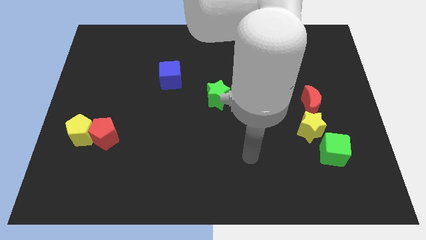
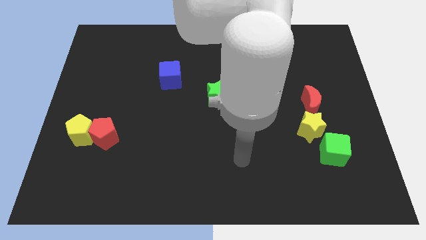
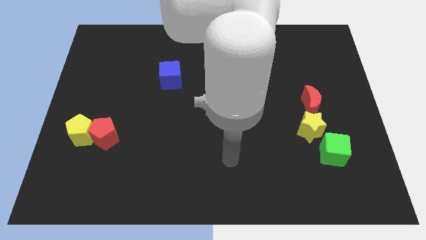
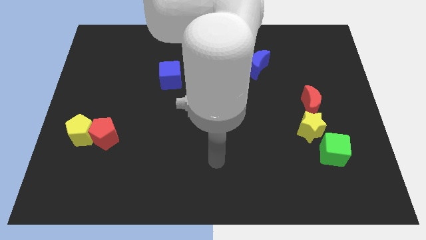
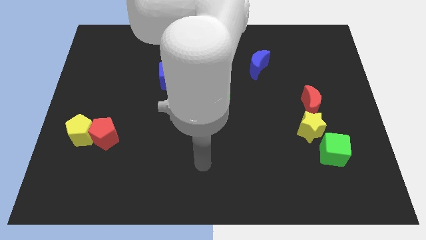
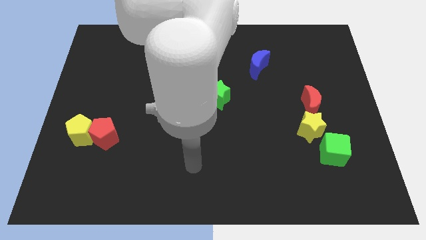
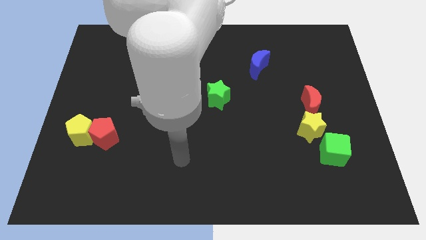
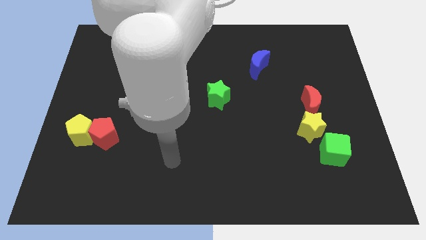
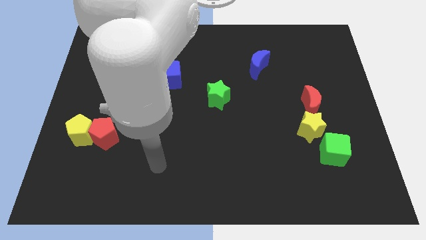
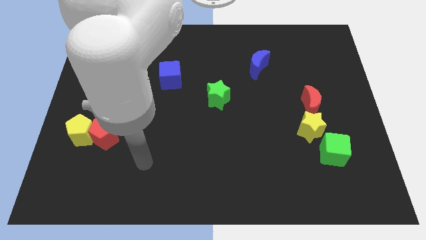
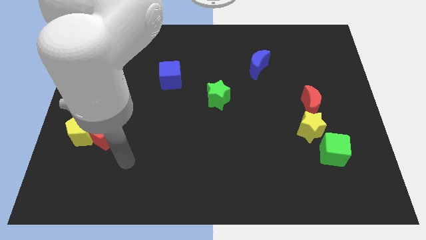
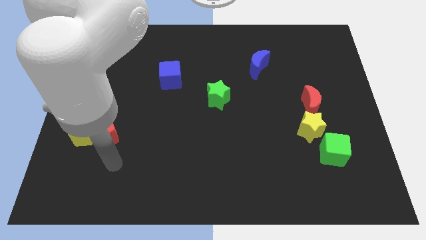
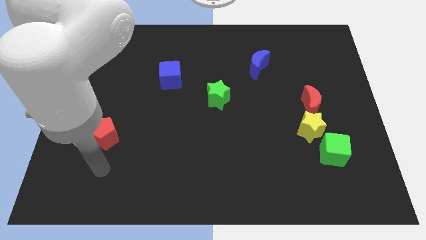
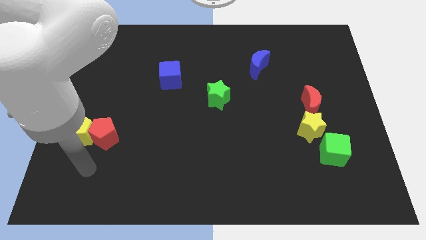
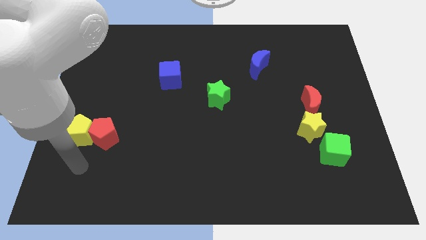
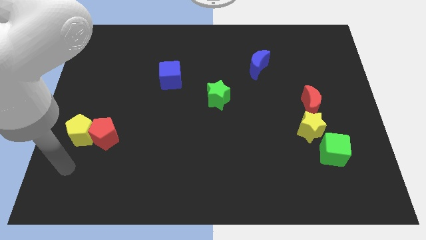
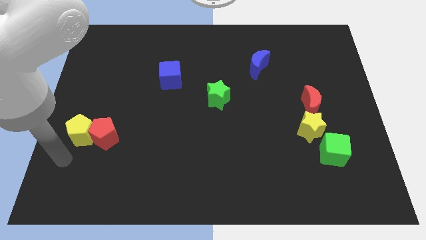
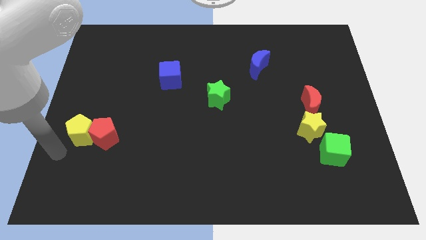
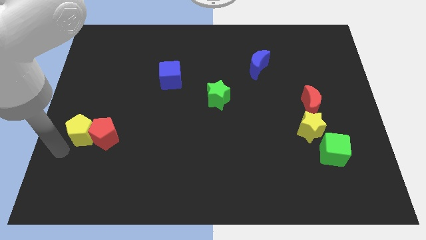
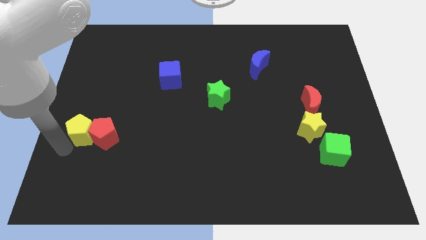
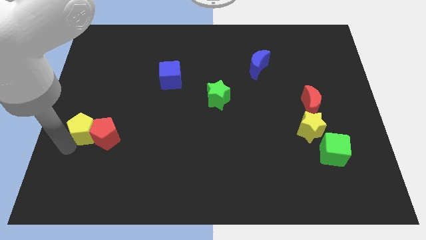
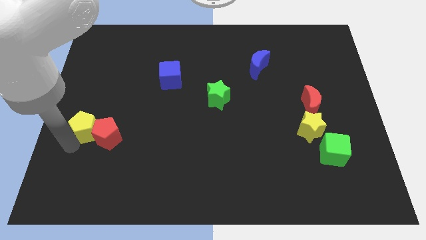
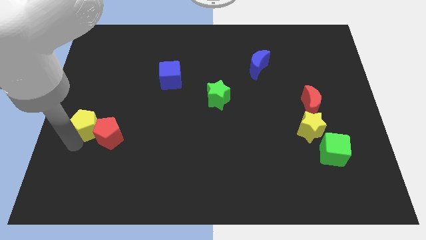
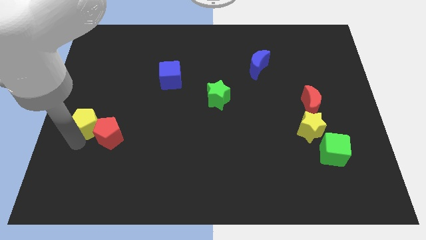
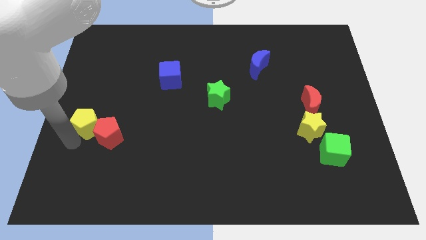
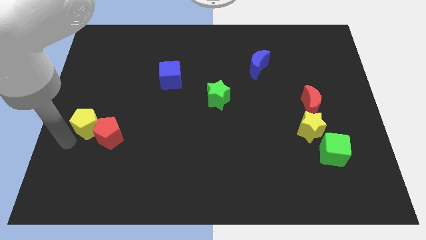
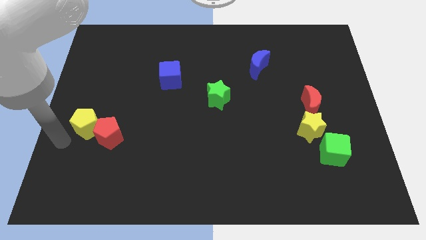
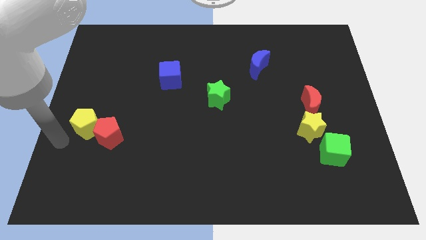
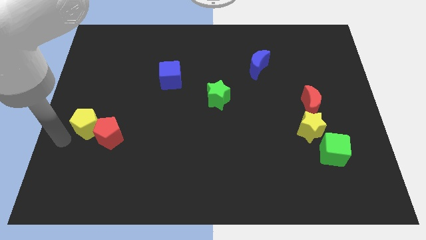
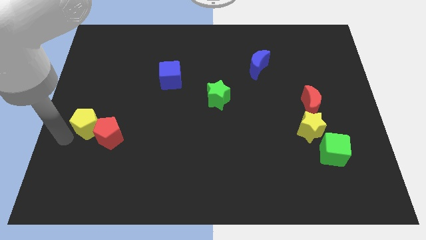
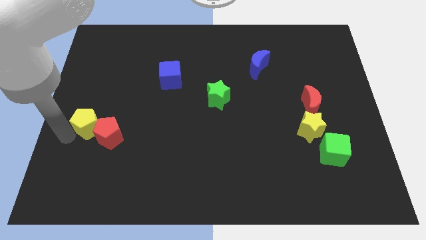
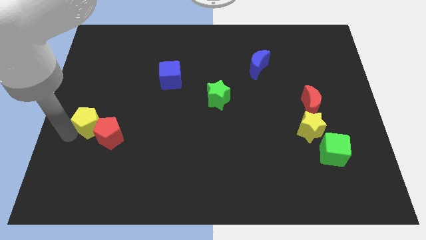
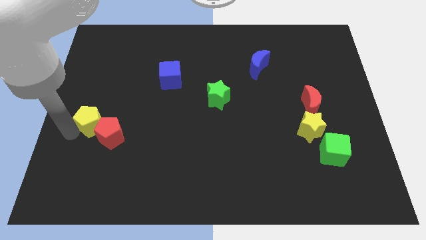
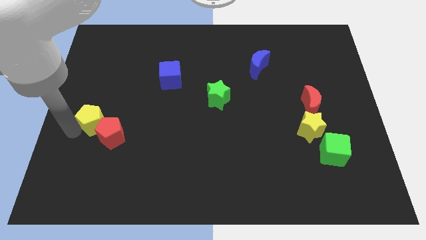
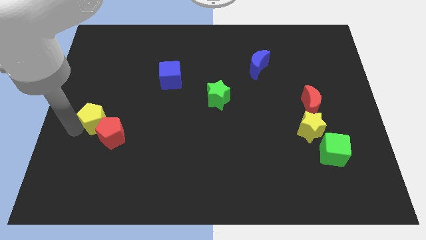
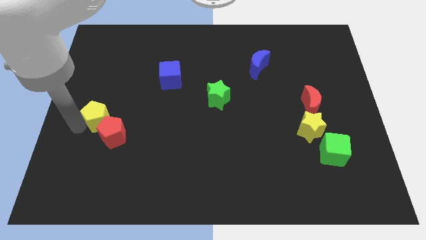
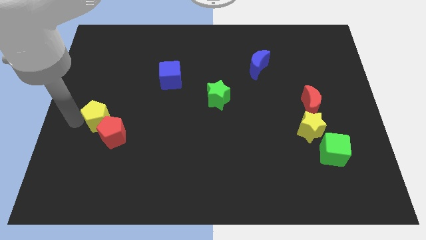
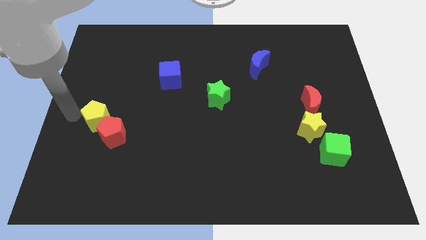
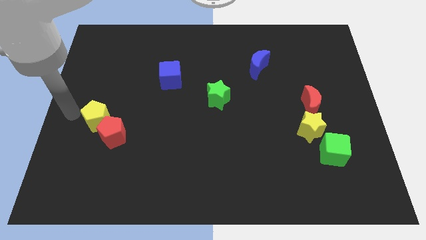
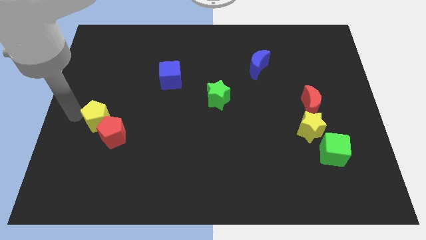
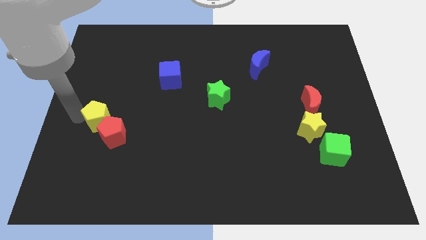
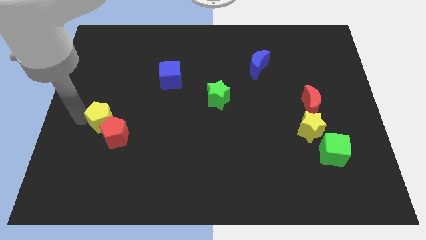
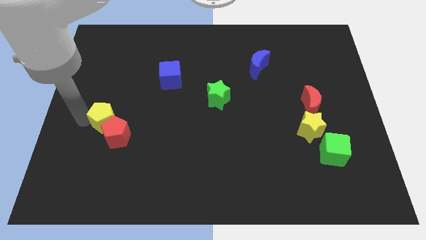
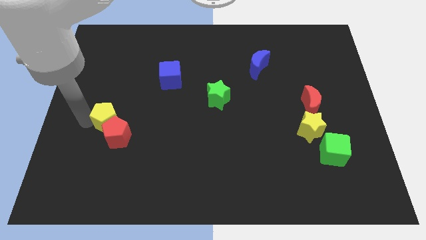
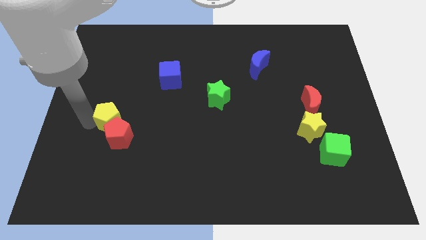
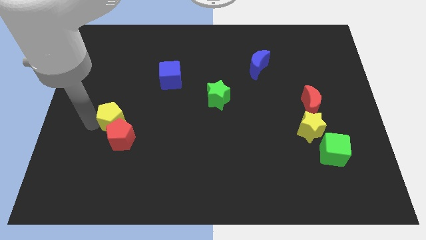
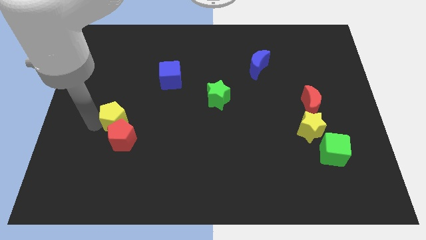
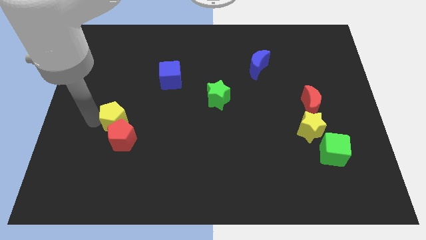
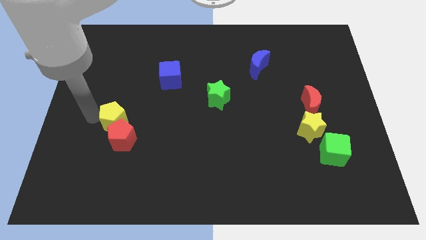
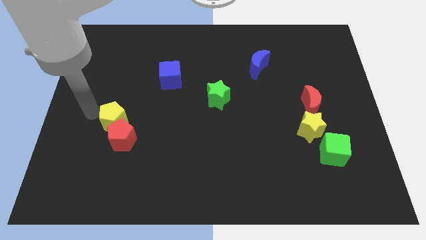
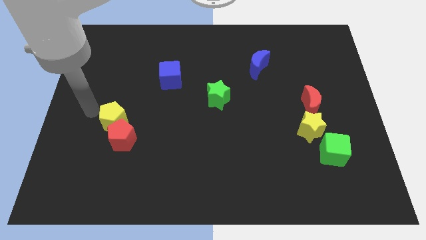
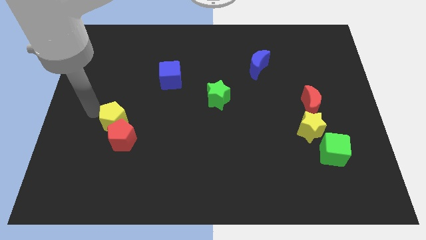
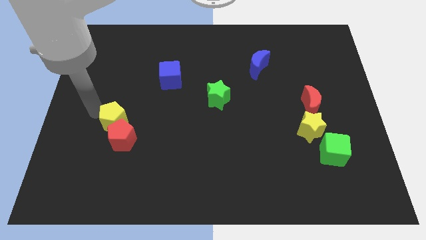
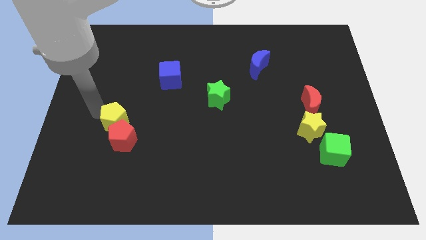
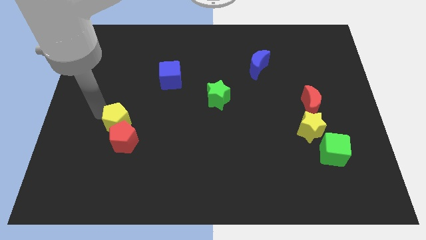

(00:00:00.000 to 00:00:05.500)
slide the yellow pentagon a bit right

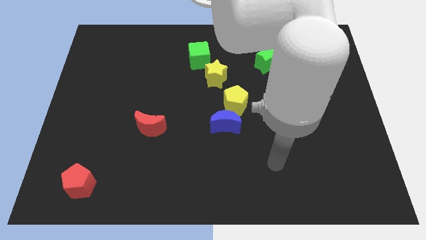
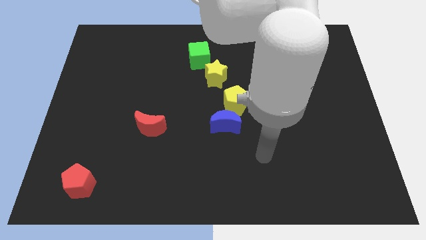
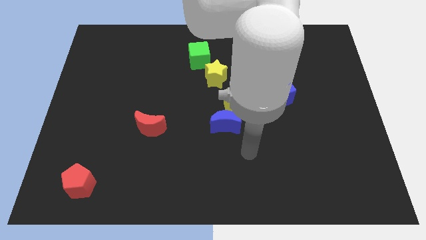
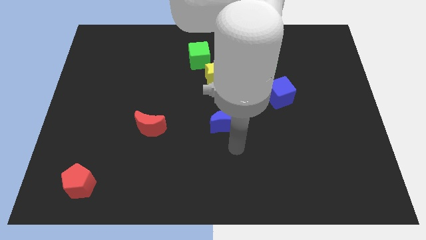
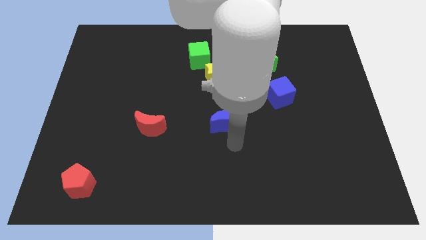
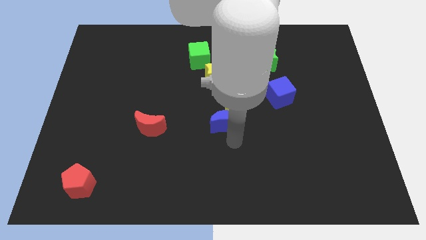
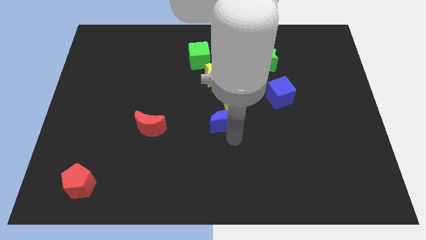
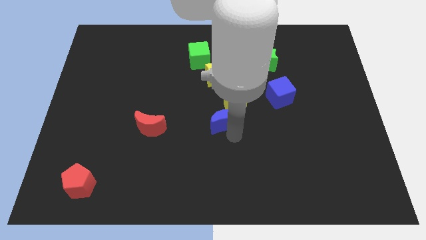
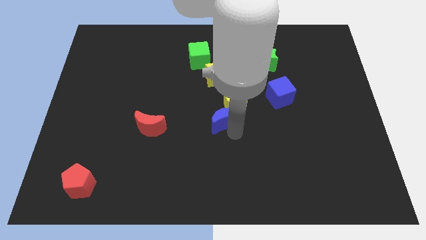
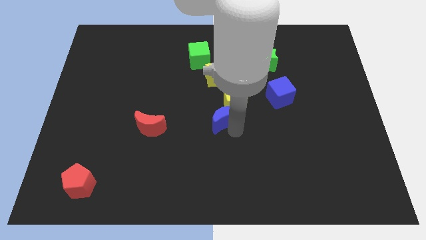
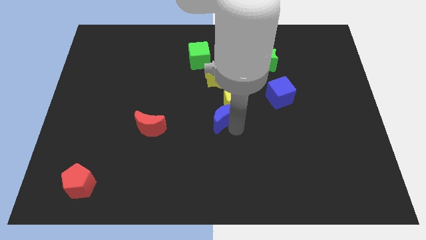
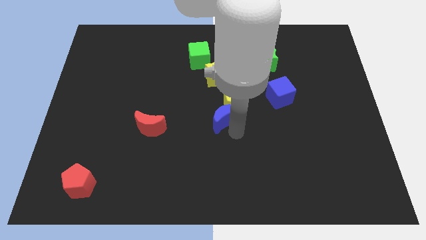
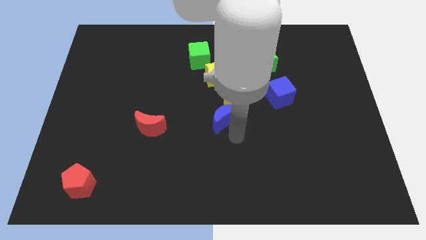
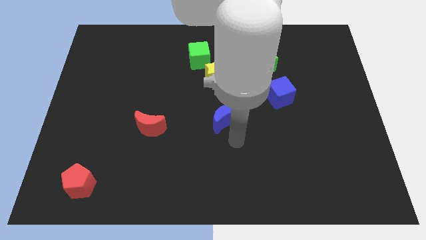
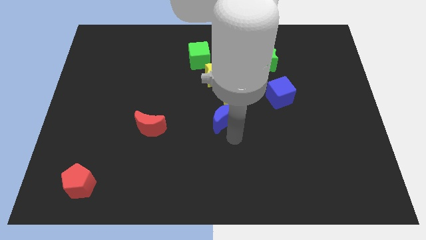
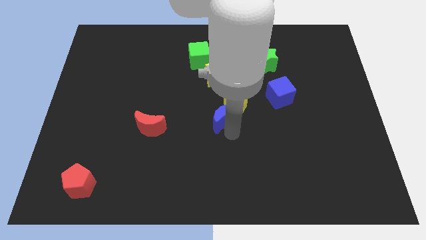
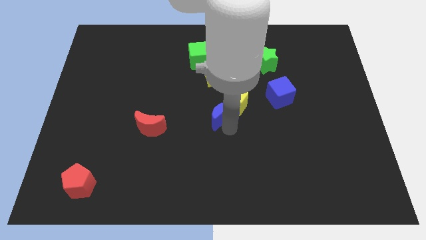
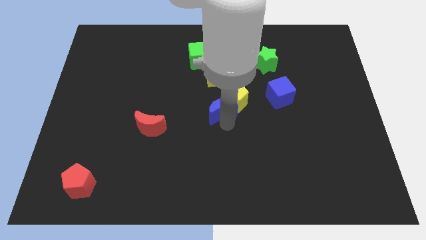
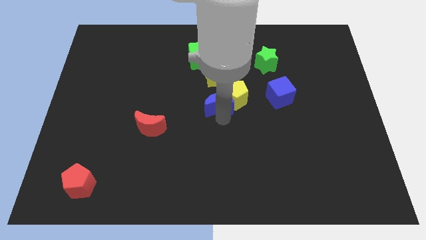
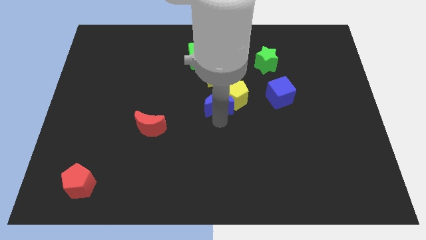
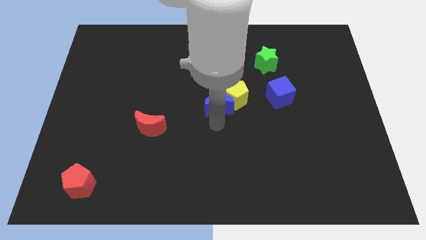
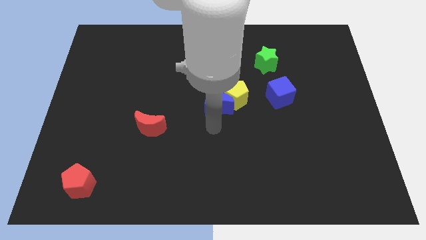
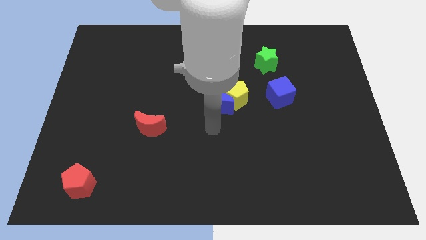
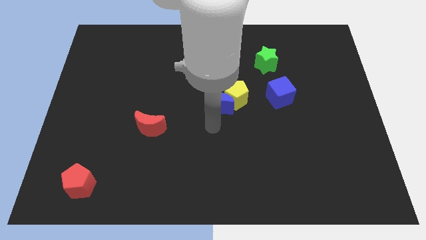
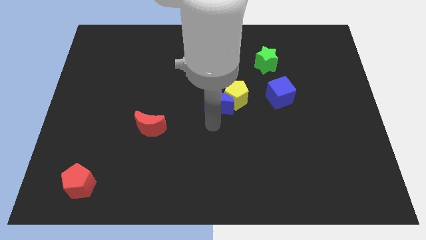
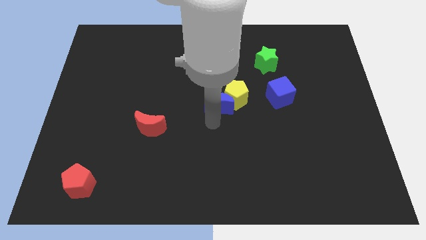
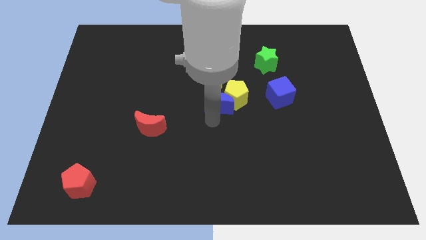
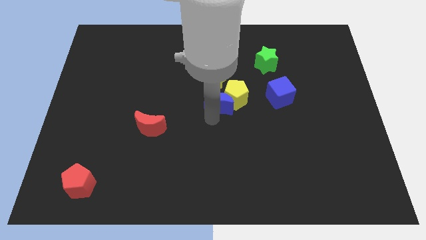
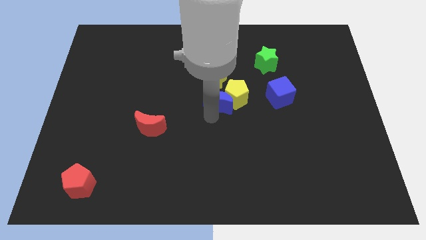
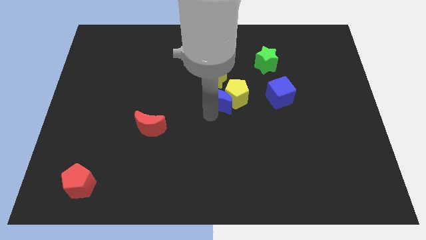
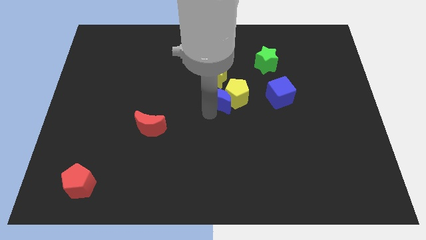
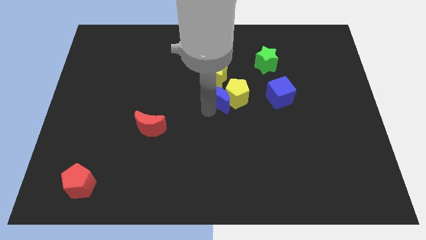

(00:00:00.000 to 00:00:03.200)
move the blue moon up a bit
